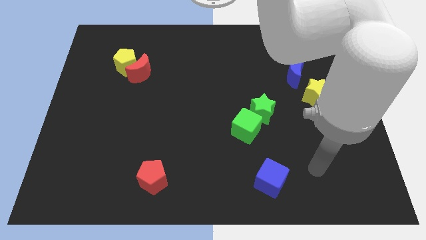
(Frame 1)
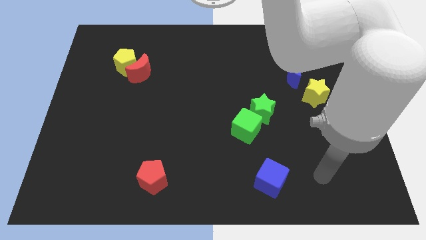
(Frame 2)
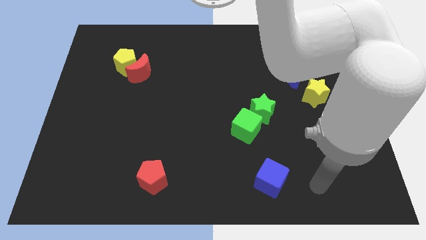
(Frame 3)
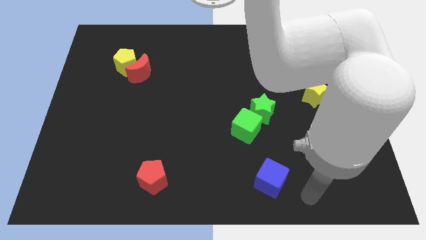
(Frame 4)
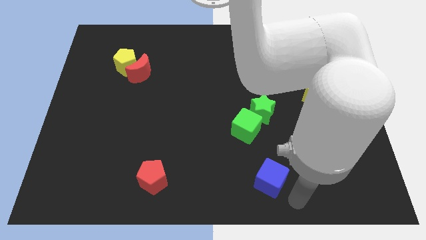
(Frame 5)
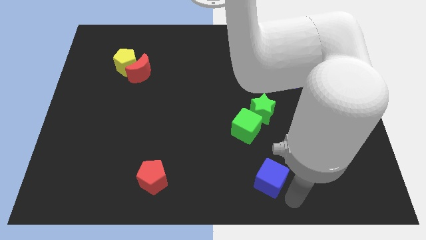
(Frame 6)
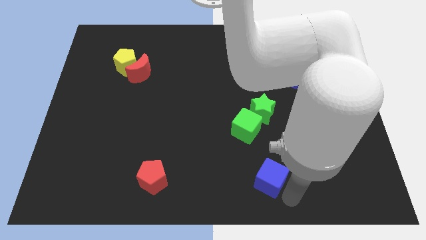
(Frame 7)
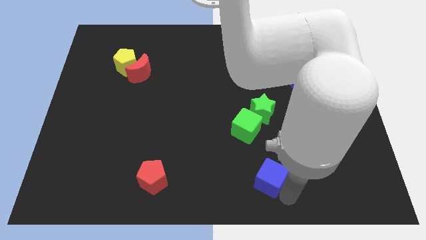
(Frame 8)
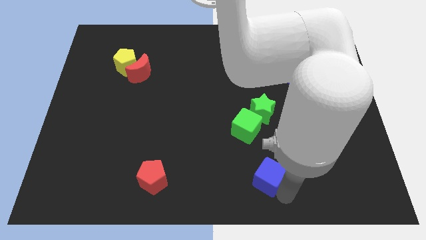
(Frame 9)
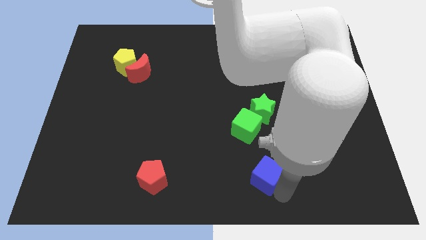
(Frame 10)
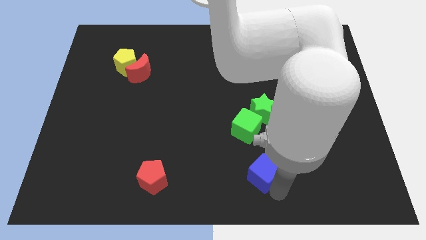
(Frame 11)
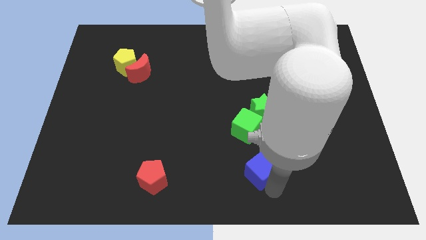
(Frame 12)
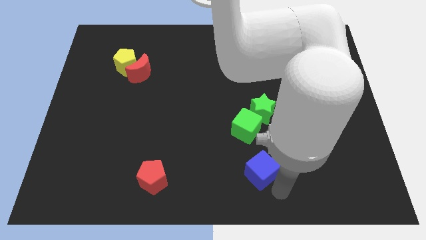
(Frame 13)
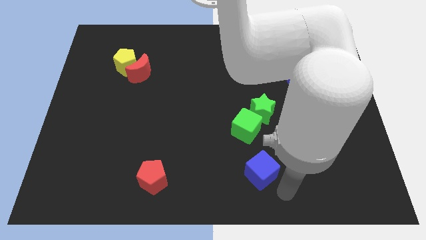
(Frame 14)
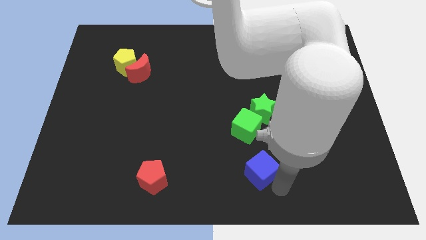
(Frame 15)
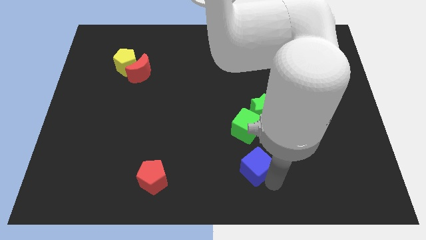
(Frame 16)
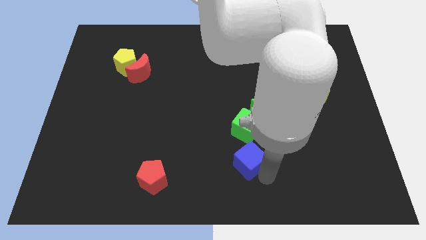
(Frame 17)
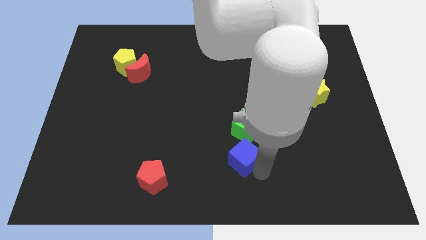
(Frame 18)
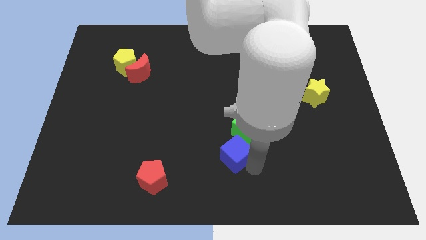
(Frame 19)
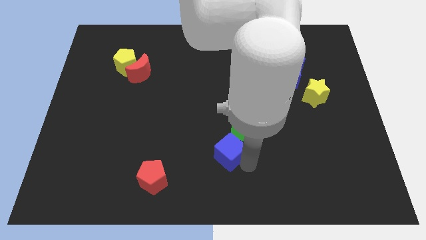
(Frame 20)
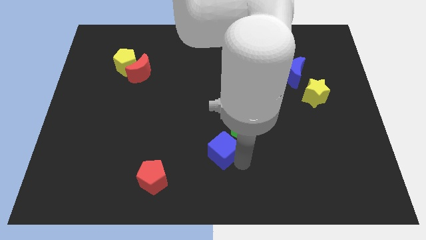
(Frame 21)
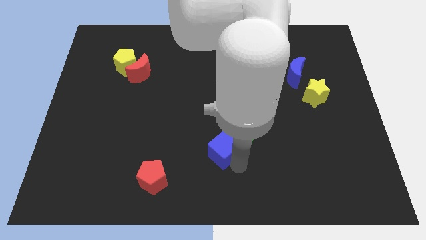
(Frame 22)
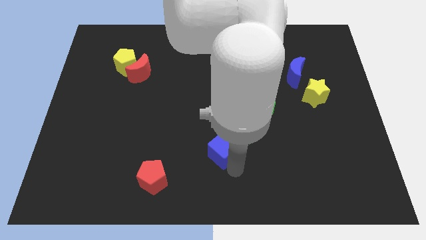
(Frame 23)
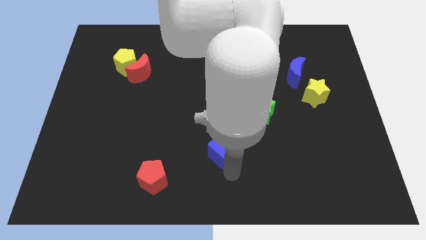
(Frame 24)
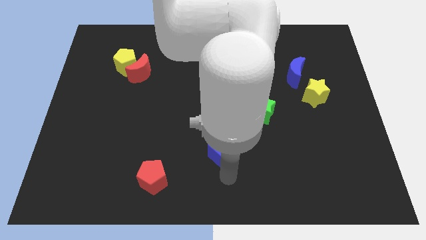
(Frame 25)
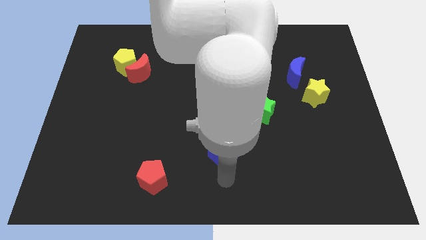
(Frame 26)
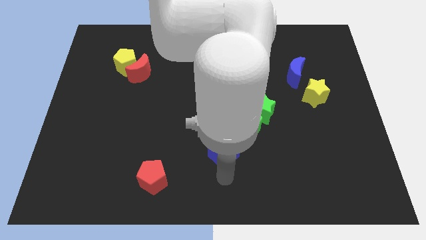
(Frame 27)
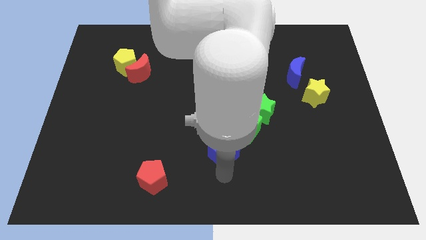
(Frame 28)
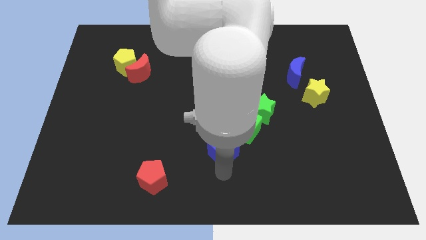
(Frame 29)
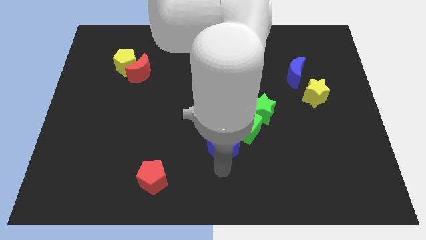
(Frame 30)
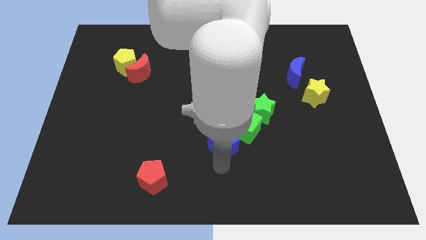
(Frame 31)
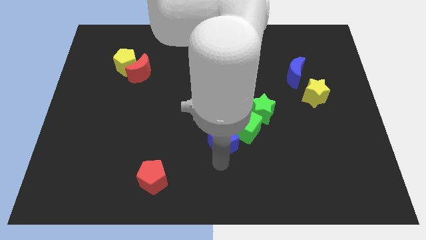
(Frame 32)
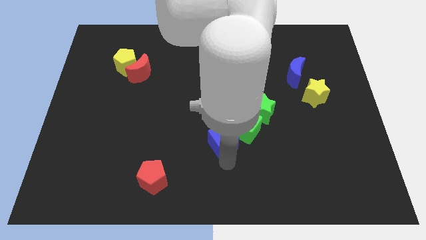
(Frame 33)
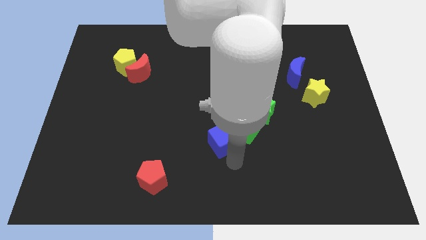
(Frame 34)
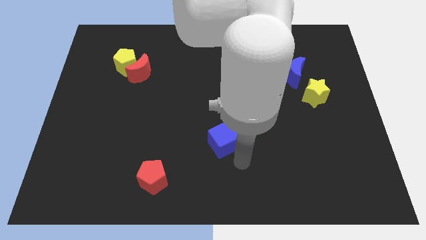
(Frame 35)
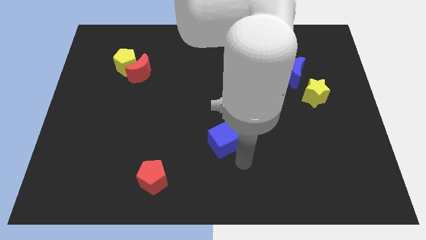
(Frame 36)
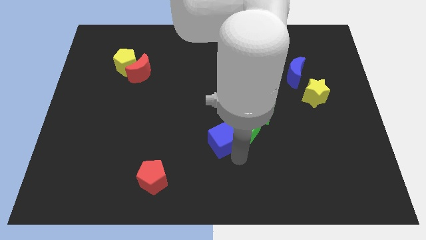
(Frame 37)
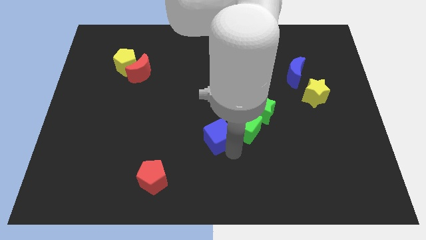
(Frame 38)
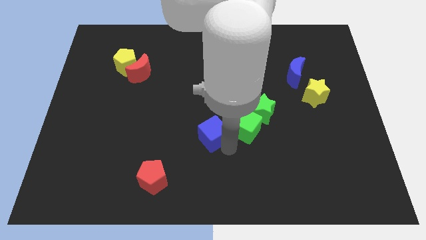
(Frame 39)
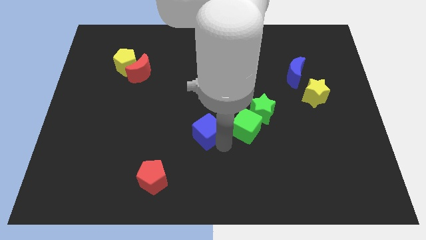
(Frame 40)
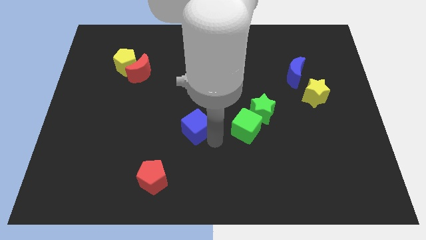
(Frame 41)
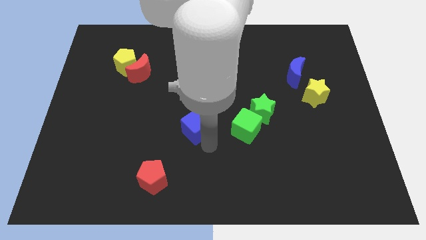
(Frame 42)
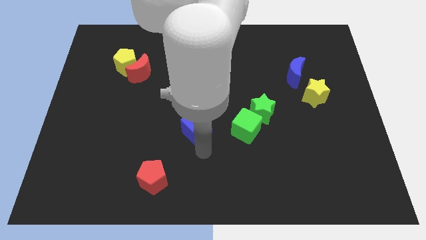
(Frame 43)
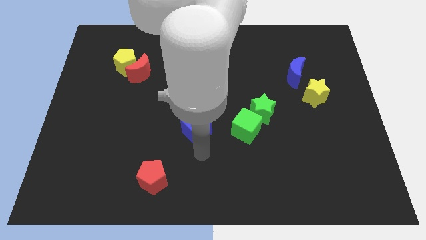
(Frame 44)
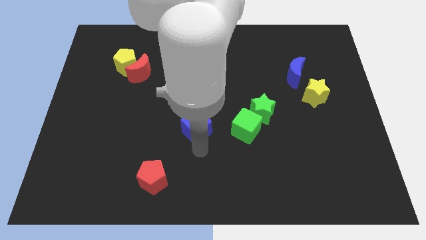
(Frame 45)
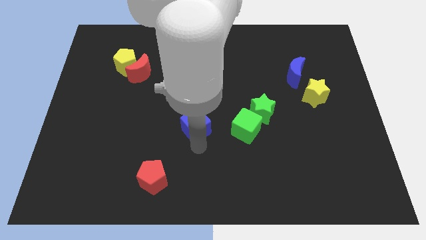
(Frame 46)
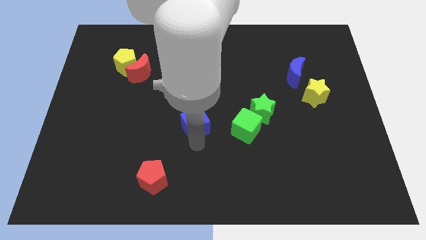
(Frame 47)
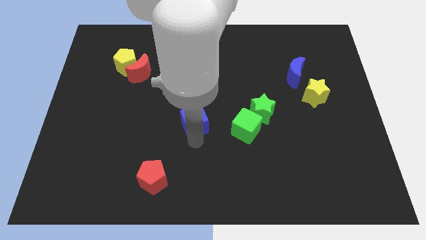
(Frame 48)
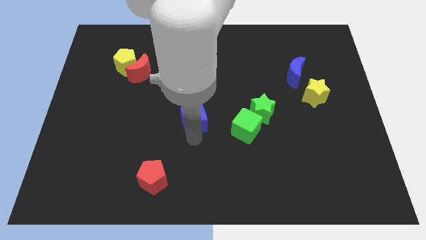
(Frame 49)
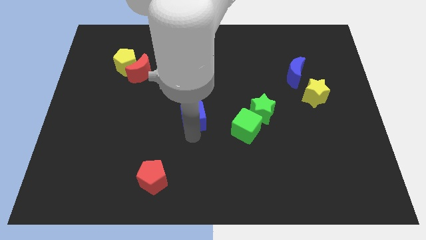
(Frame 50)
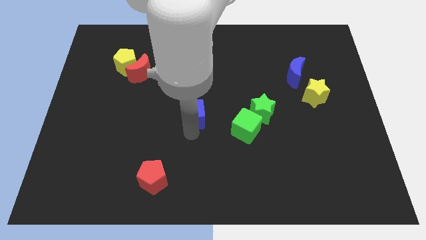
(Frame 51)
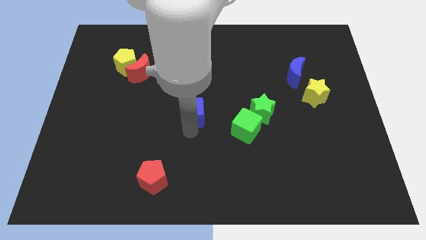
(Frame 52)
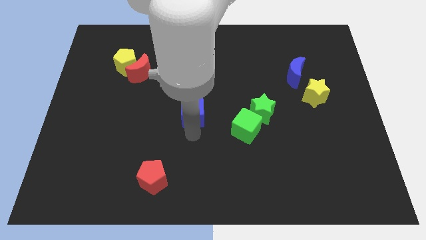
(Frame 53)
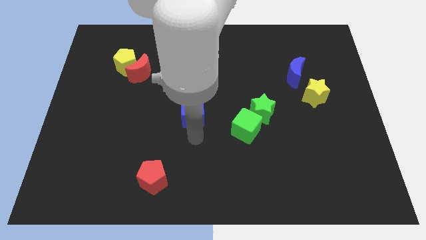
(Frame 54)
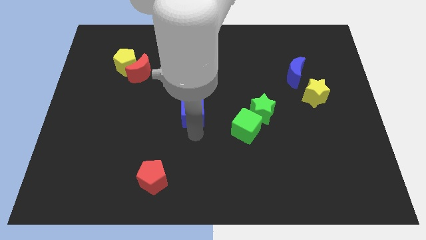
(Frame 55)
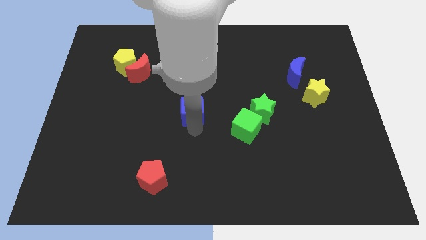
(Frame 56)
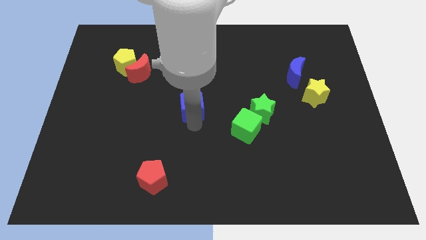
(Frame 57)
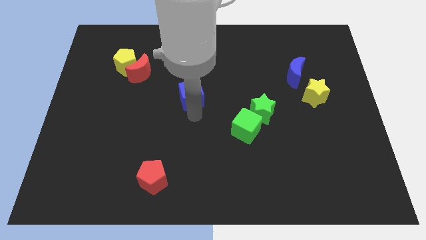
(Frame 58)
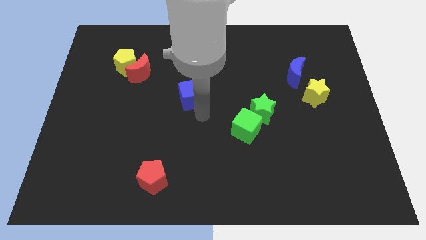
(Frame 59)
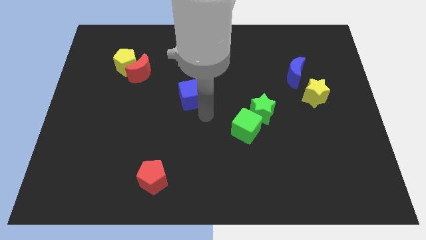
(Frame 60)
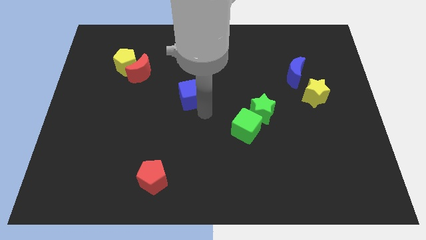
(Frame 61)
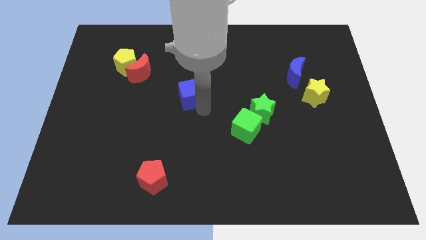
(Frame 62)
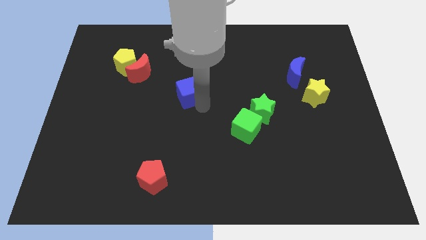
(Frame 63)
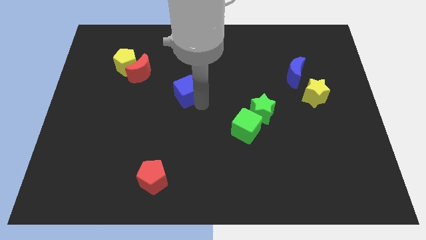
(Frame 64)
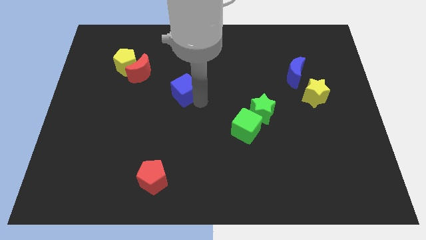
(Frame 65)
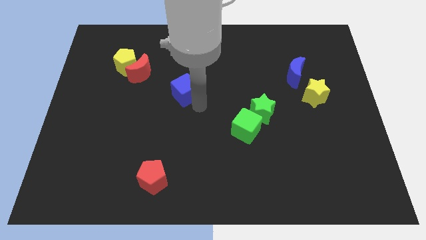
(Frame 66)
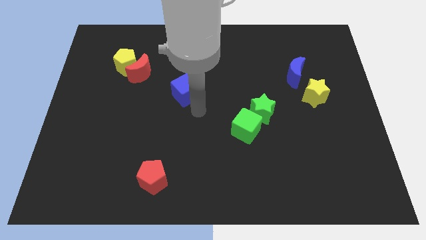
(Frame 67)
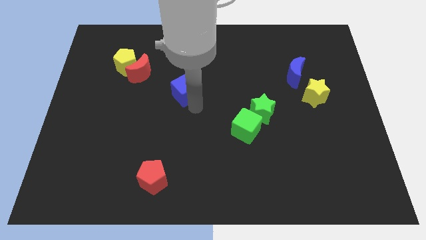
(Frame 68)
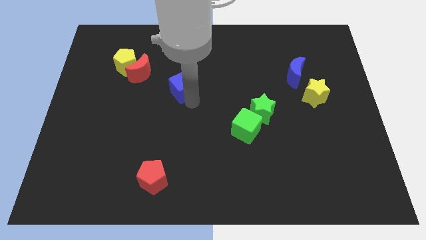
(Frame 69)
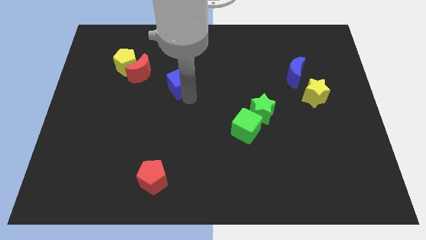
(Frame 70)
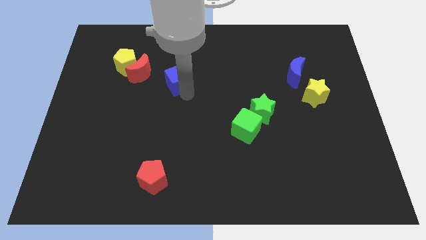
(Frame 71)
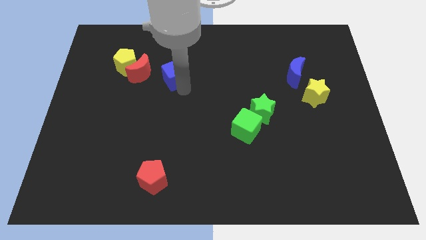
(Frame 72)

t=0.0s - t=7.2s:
push the blue cube right of the yellow pentagon

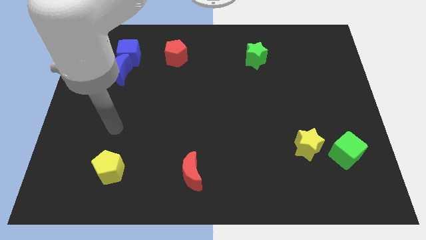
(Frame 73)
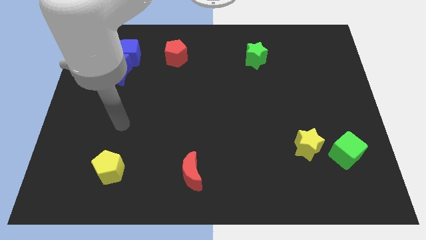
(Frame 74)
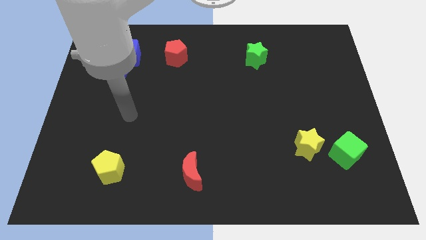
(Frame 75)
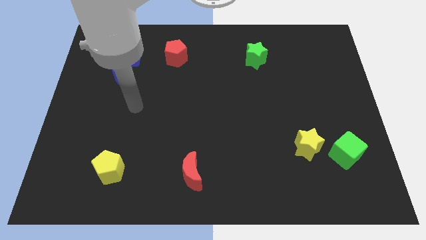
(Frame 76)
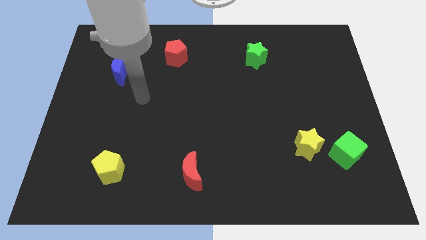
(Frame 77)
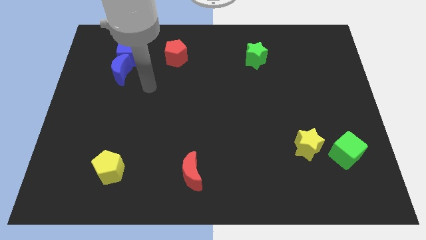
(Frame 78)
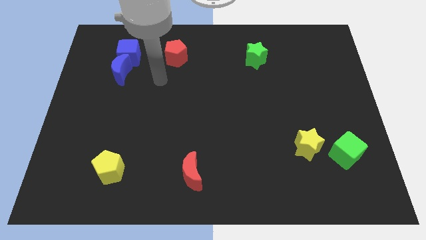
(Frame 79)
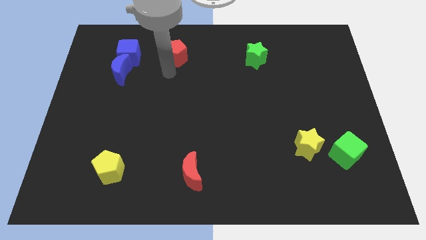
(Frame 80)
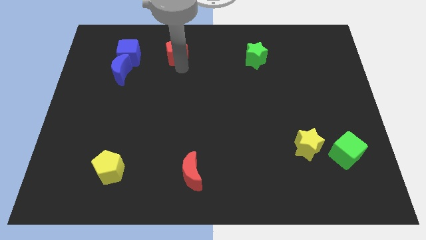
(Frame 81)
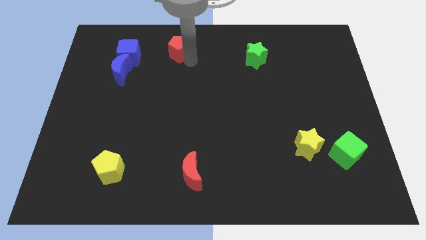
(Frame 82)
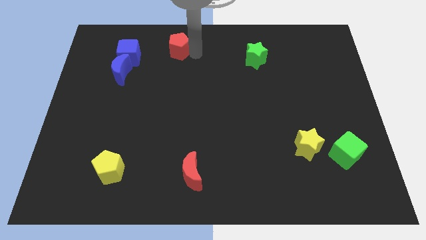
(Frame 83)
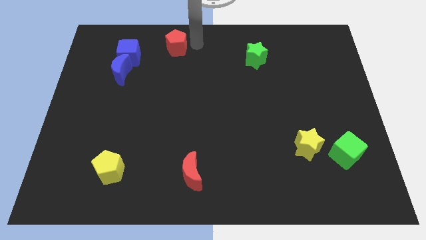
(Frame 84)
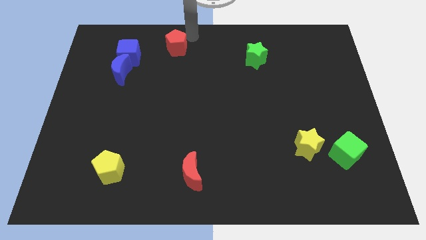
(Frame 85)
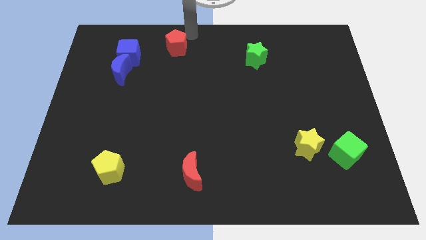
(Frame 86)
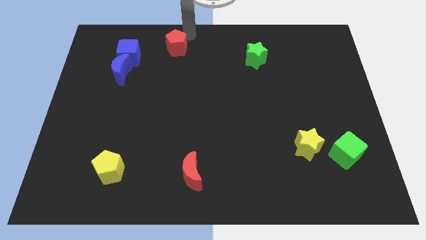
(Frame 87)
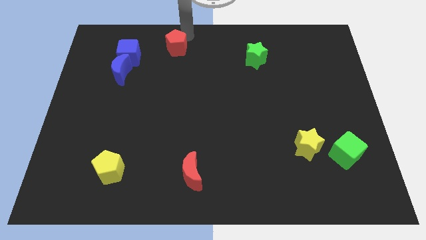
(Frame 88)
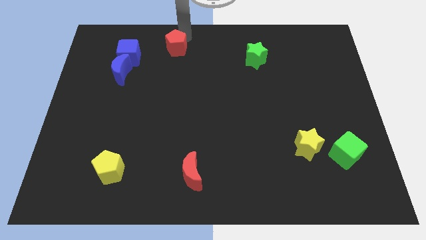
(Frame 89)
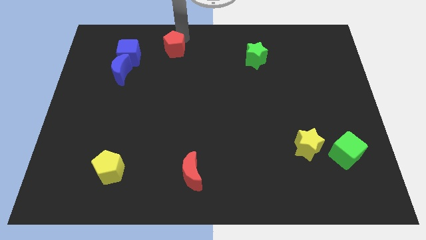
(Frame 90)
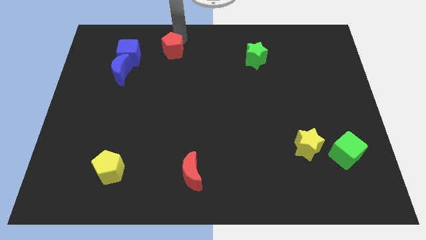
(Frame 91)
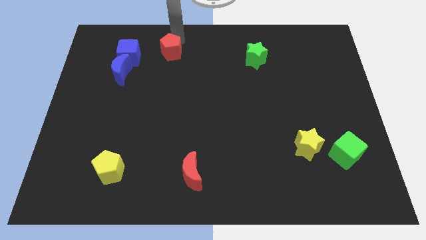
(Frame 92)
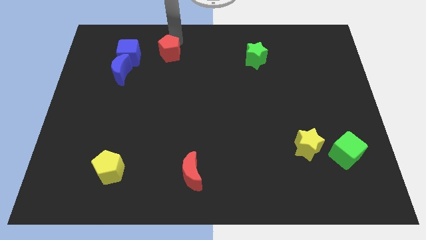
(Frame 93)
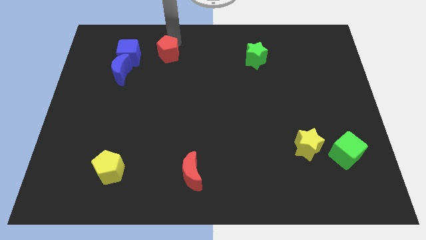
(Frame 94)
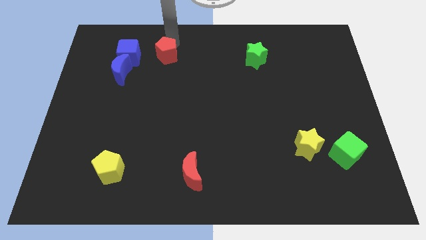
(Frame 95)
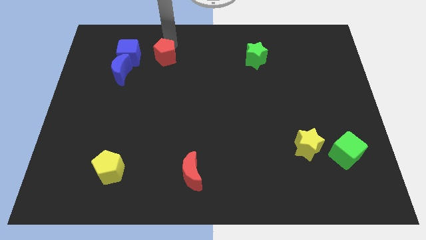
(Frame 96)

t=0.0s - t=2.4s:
push the red pentagon diagonally up and to the right of the blue moon
